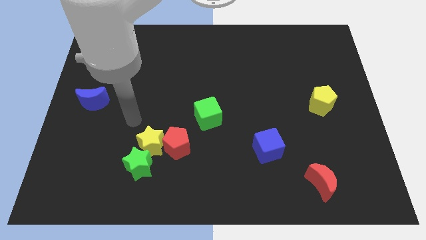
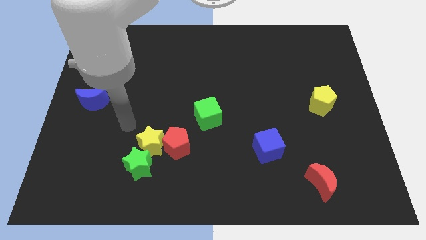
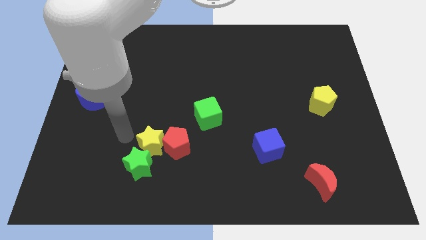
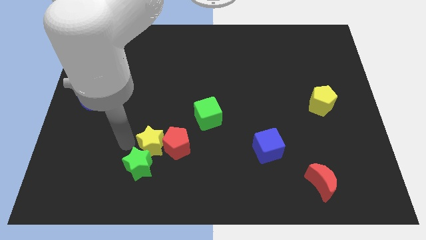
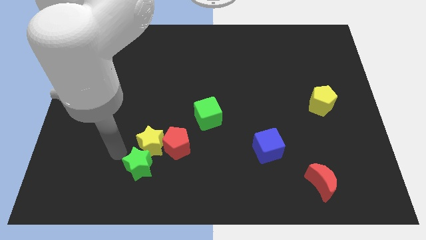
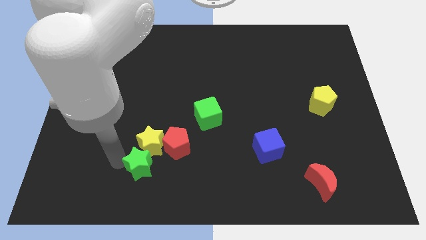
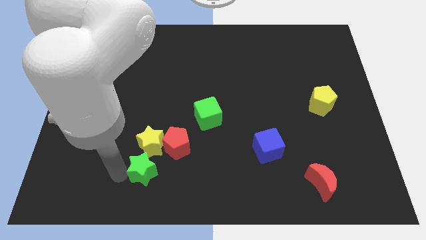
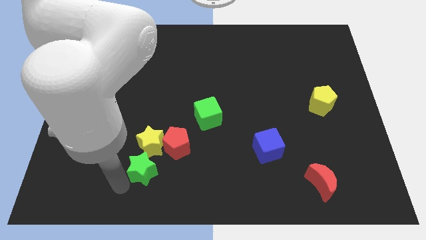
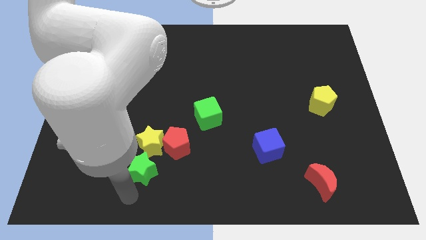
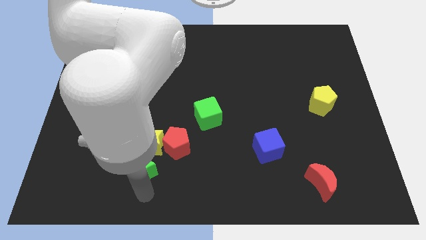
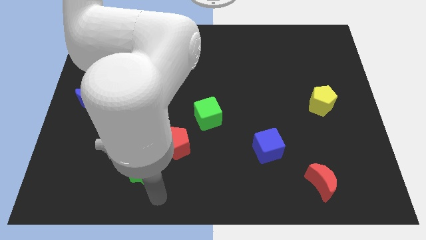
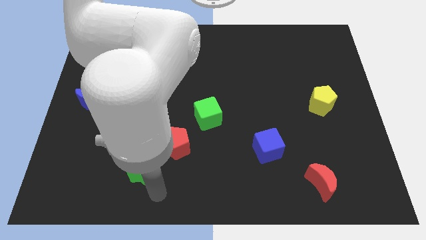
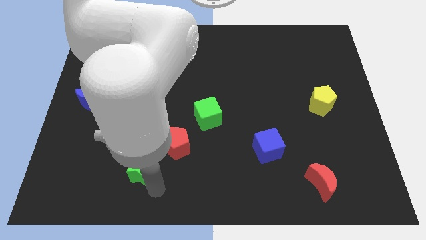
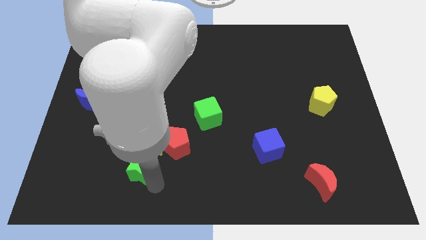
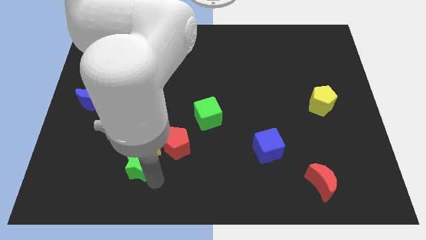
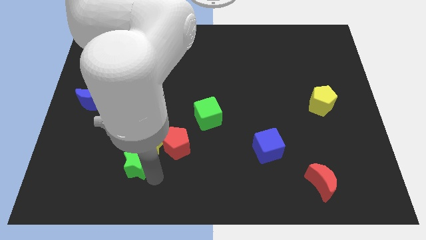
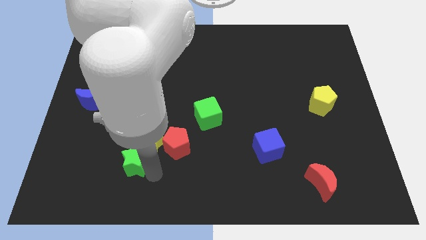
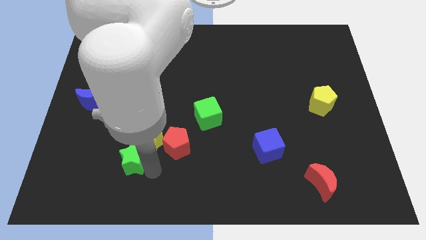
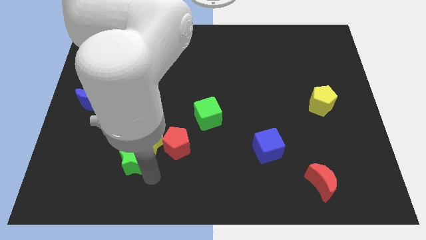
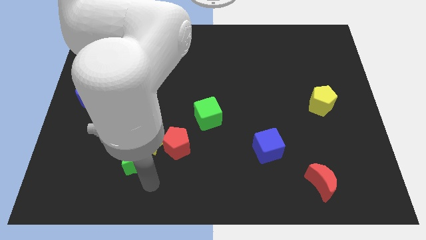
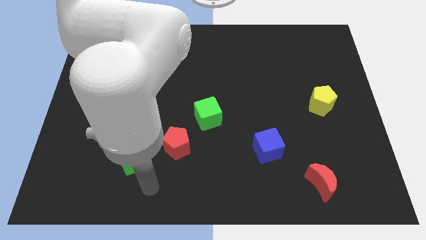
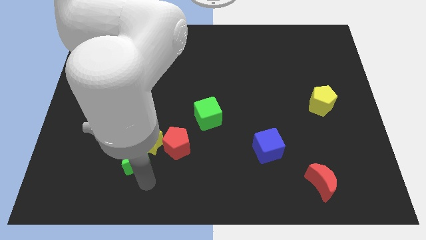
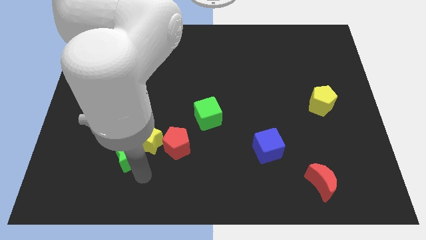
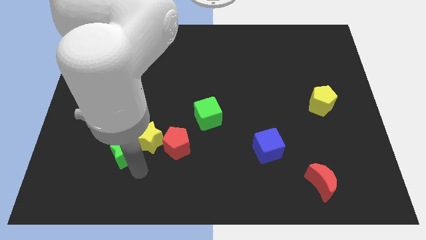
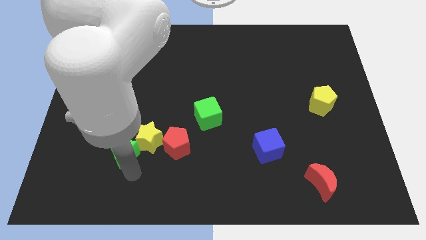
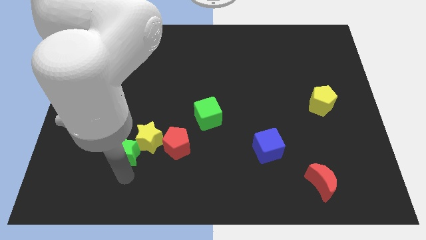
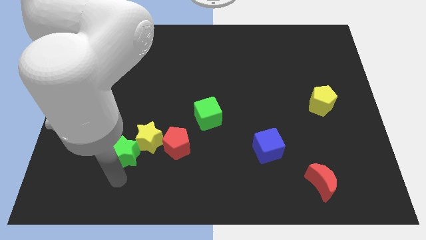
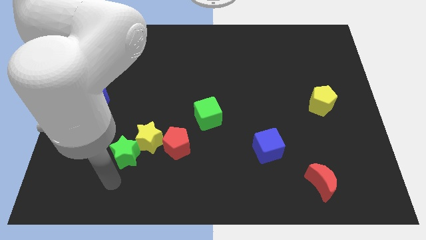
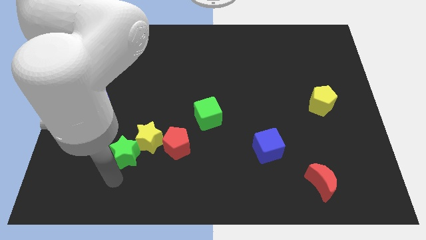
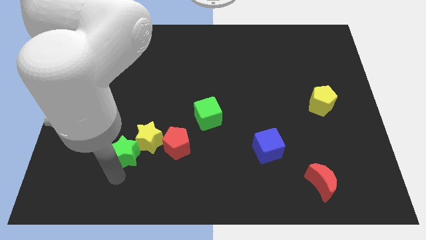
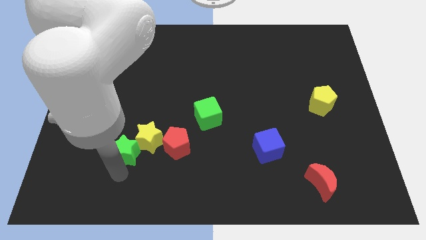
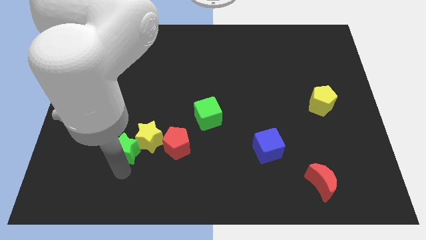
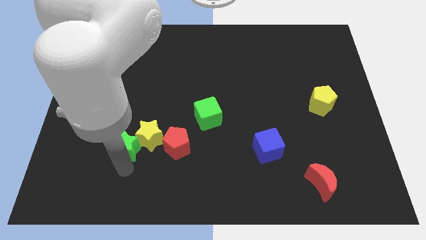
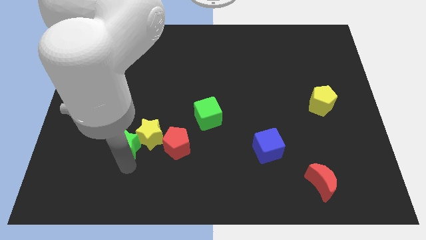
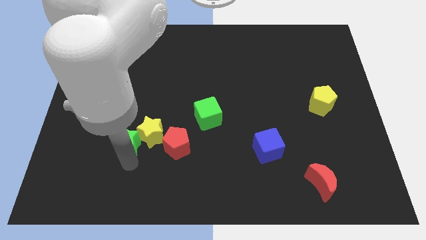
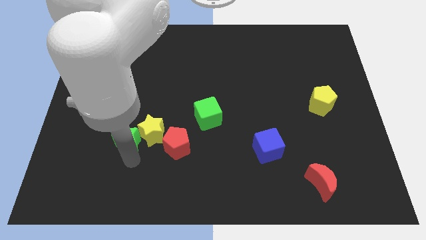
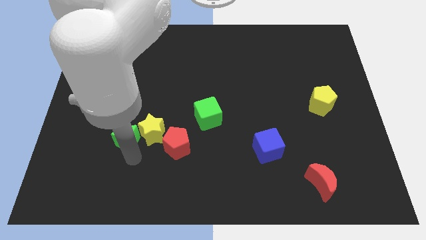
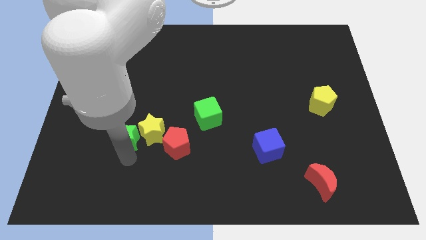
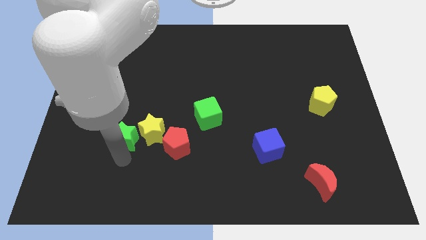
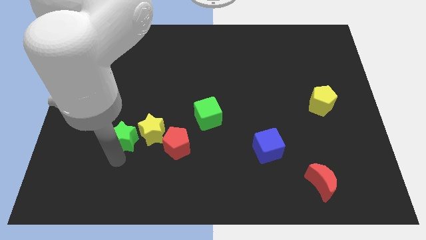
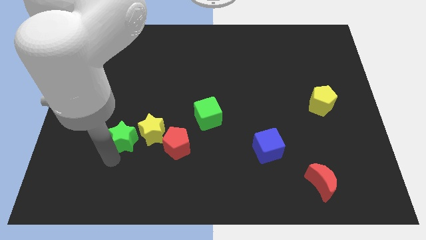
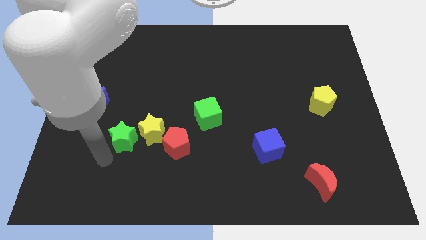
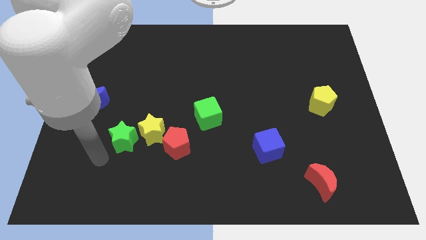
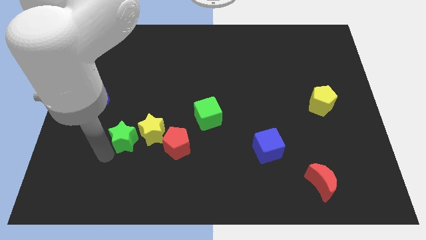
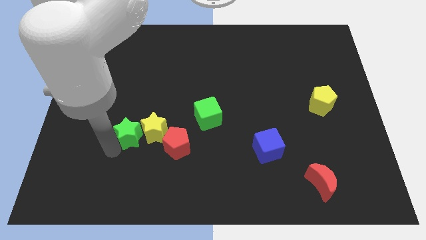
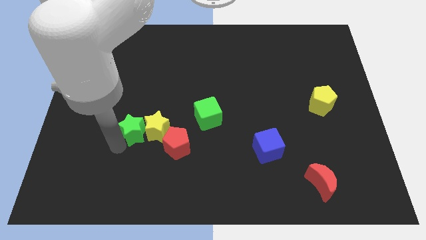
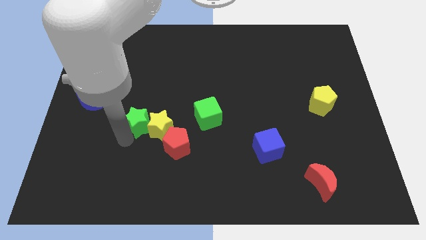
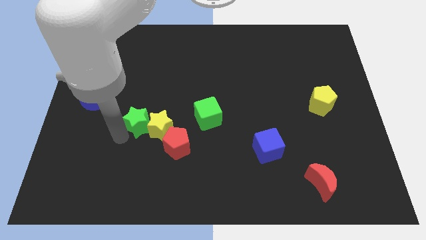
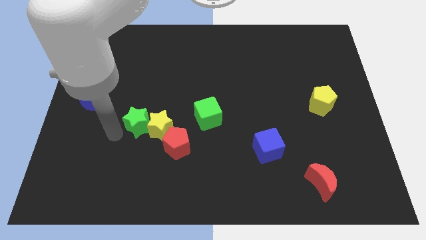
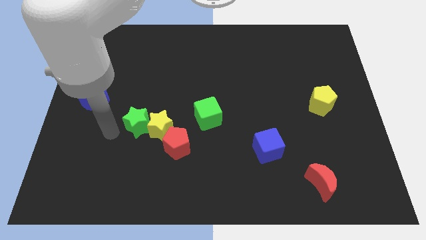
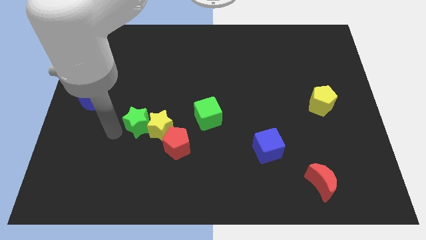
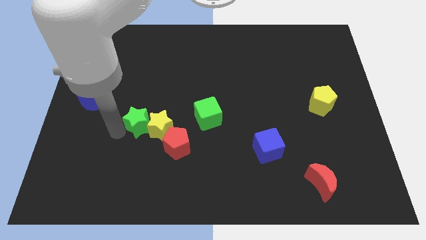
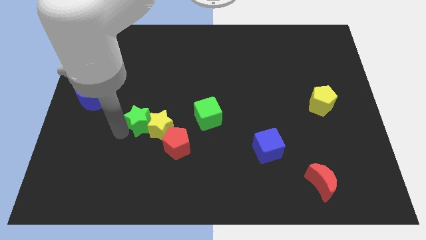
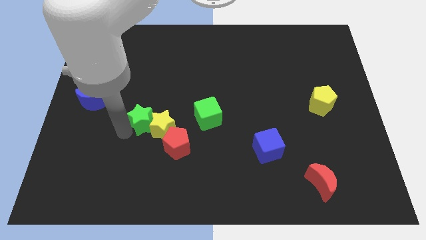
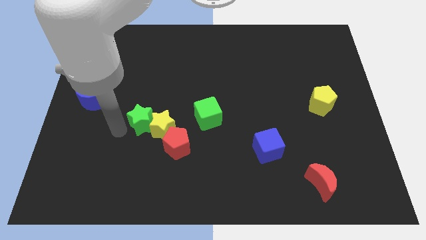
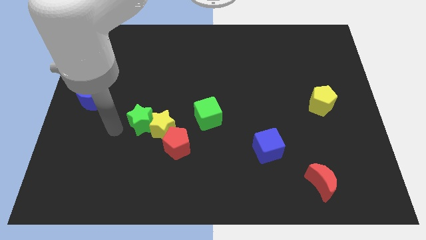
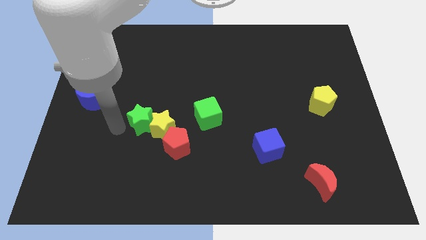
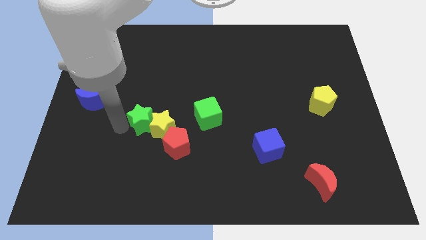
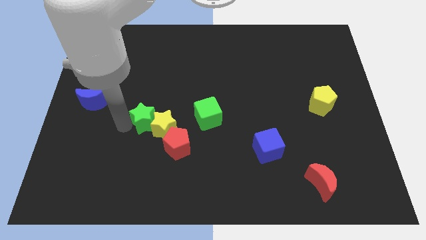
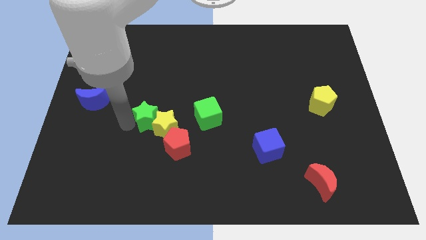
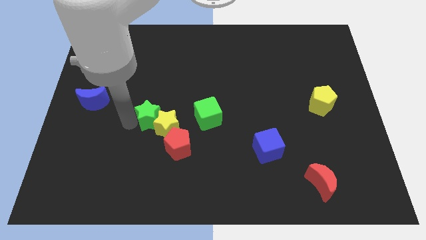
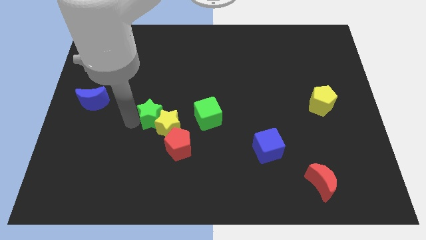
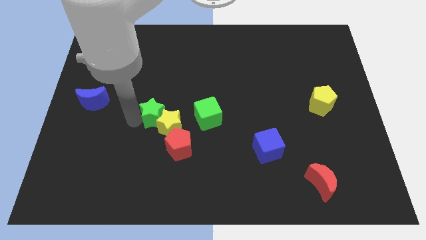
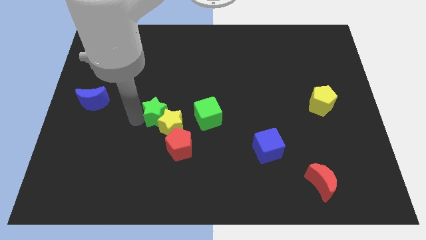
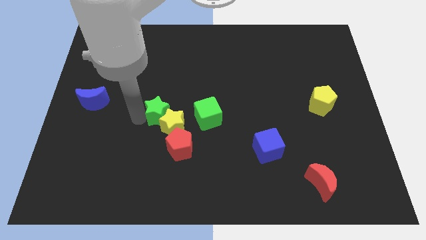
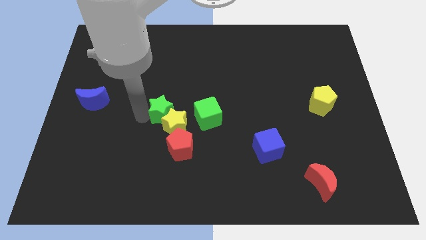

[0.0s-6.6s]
move the green star to the middle
